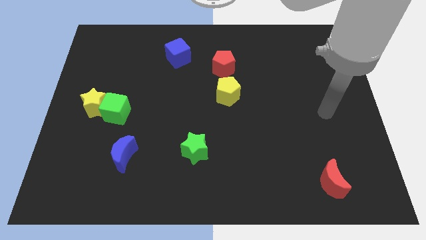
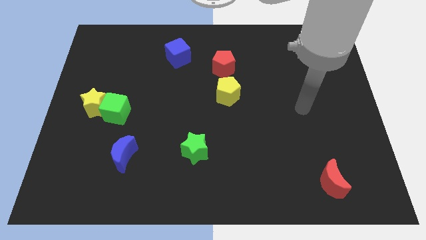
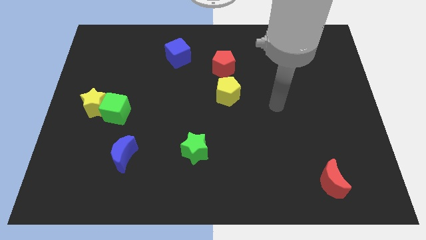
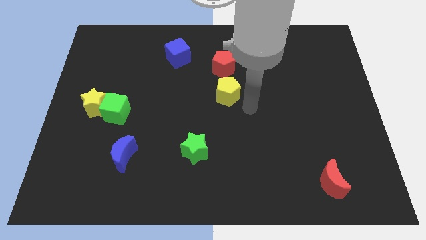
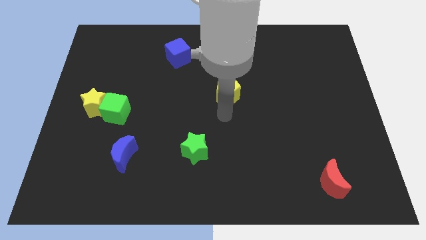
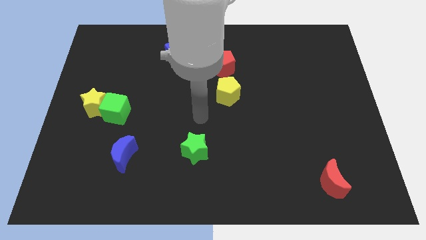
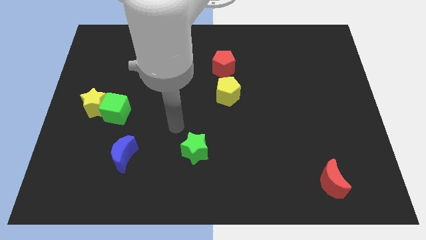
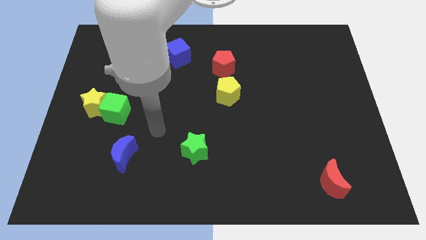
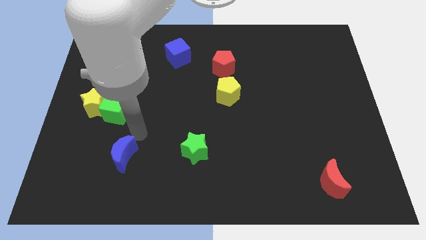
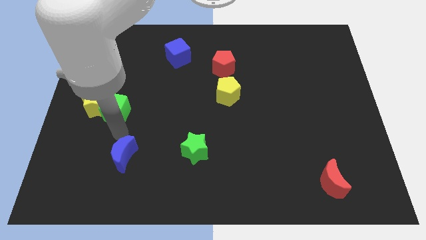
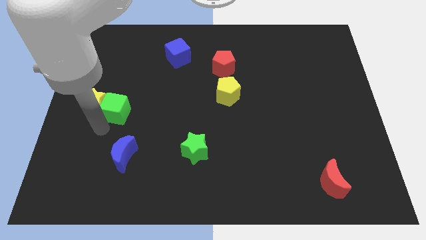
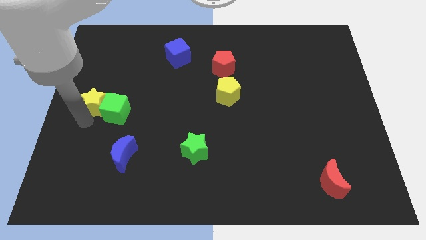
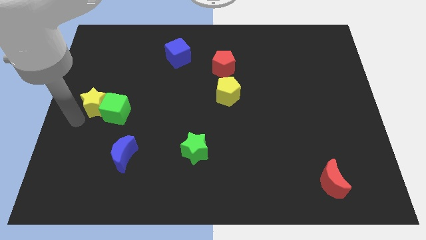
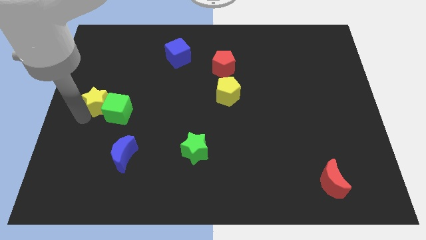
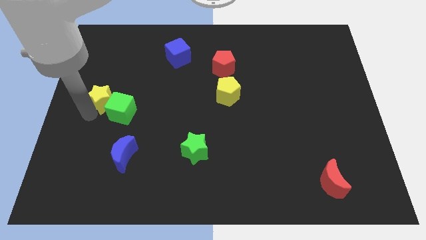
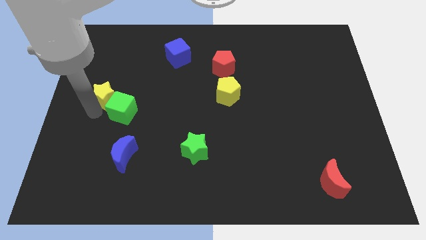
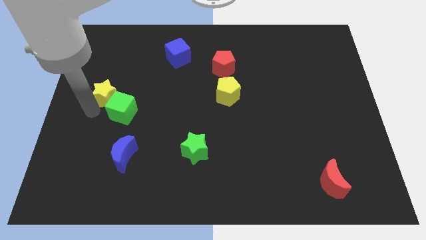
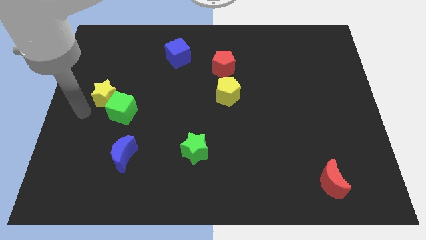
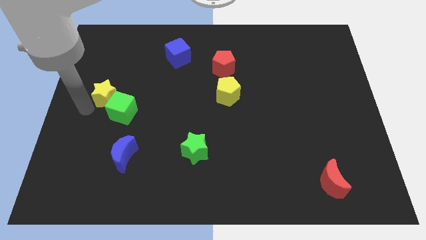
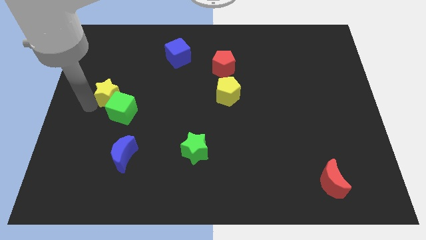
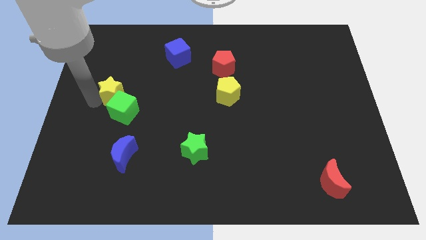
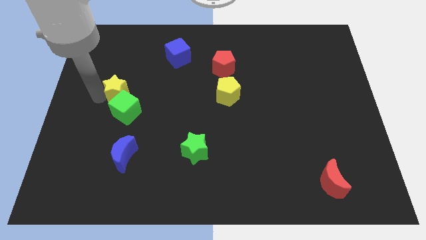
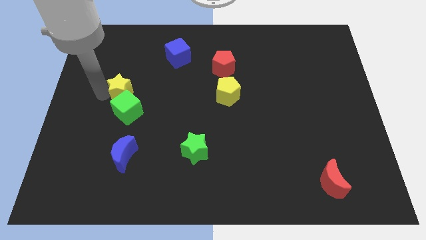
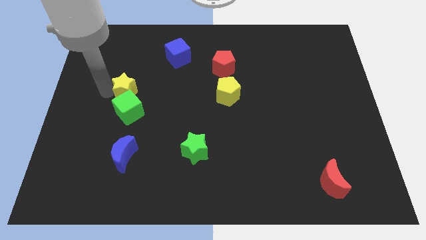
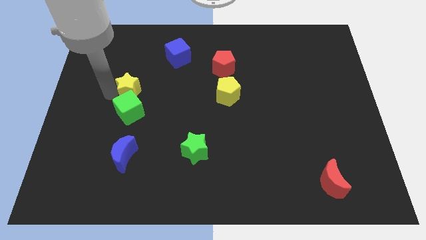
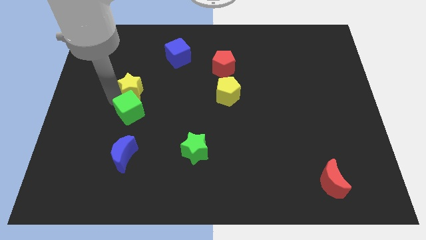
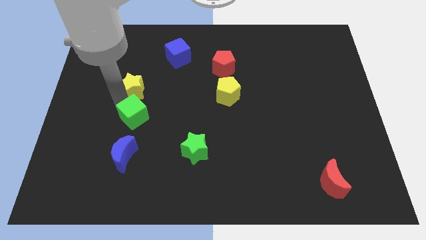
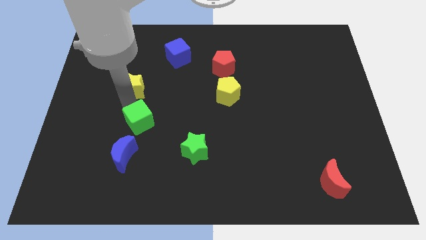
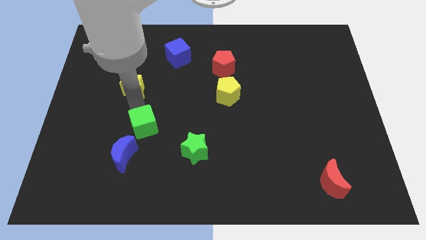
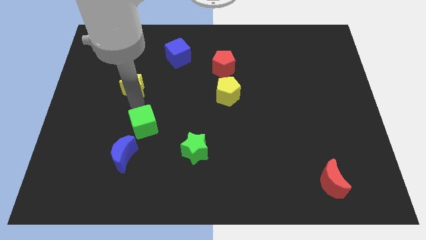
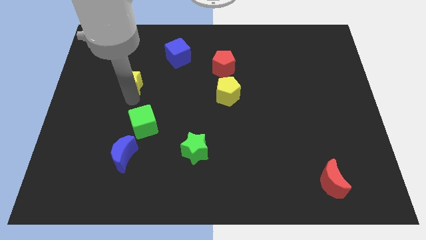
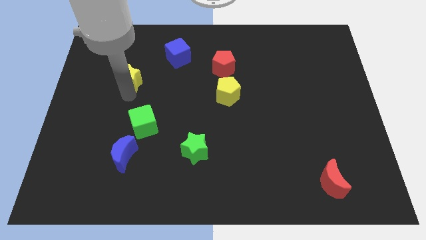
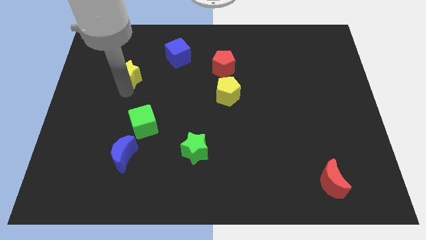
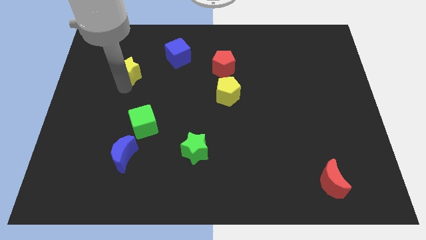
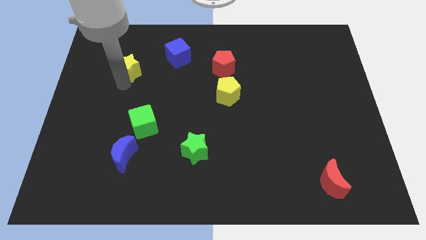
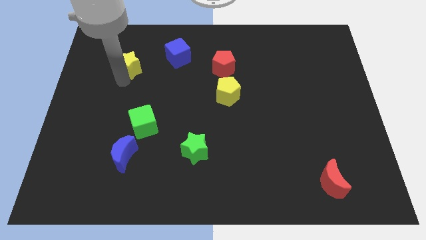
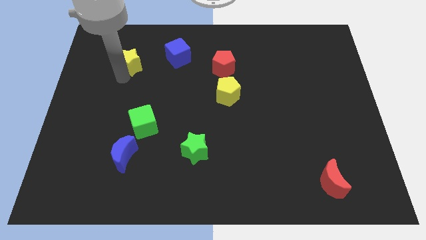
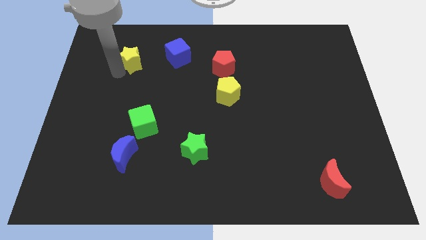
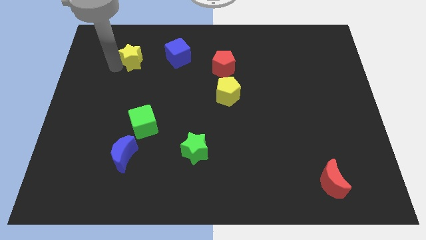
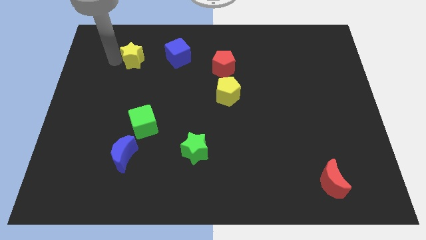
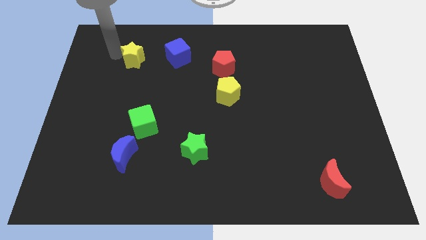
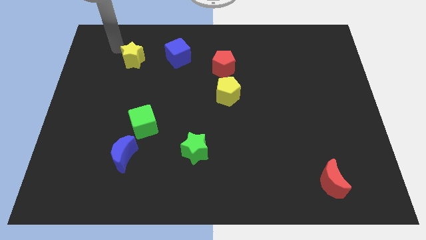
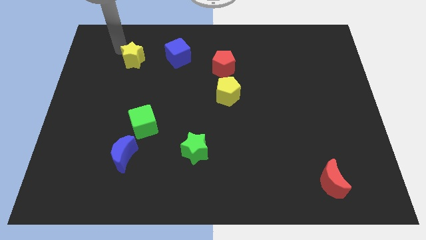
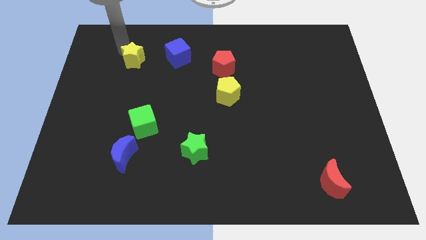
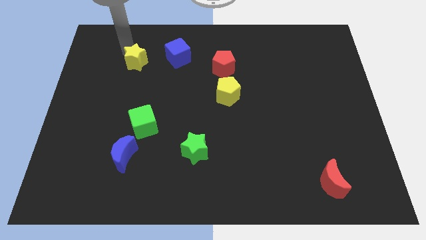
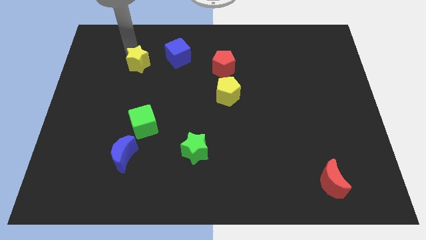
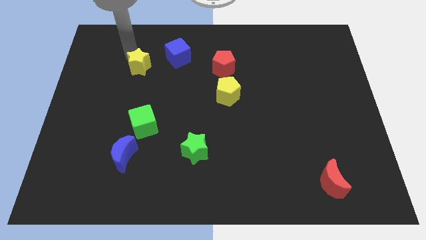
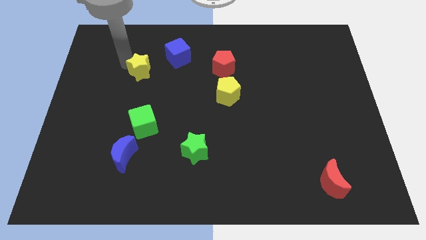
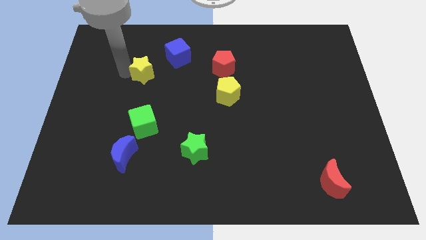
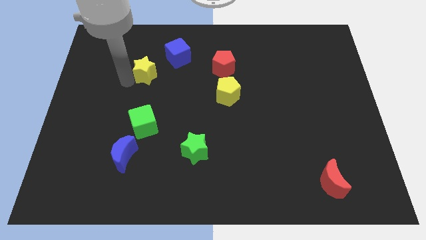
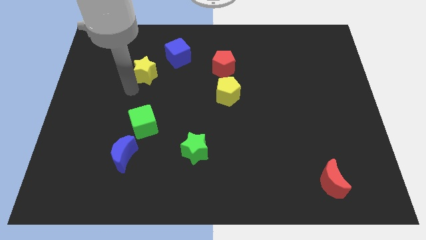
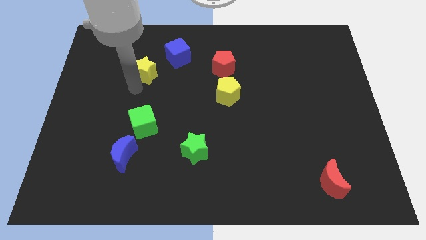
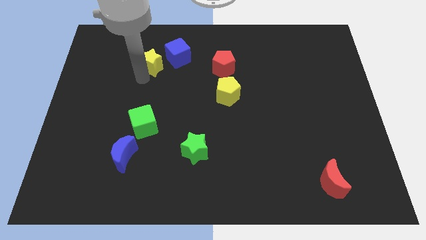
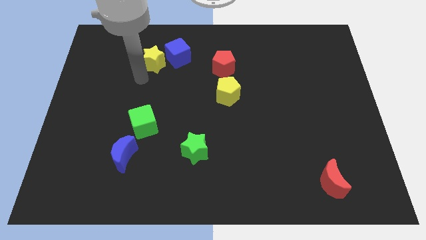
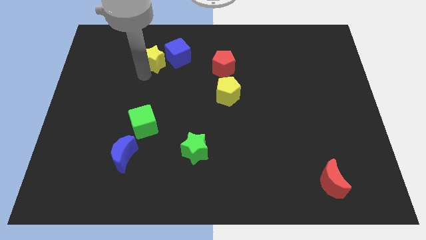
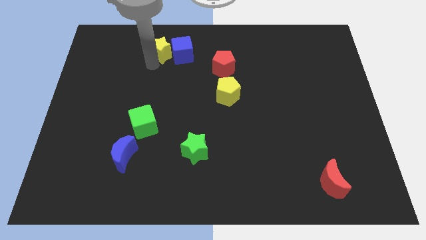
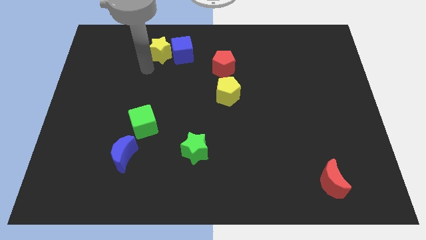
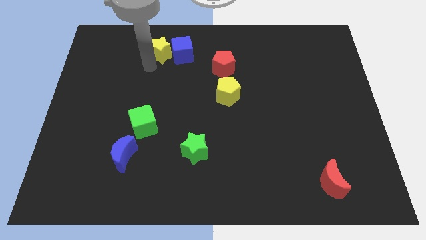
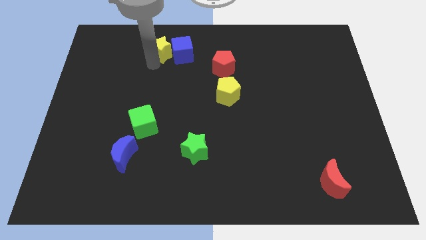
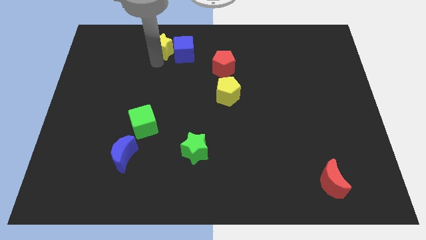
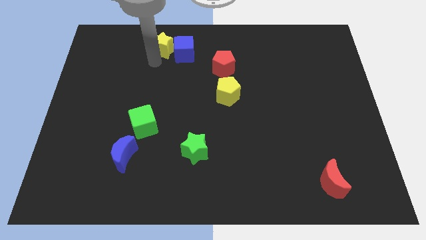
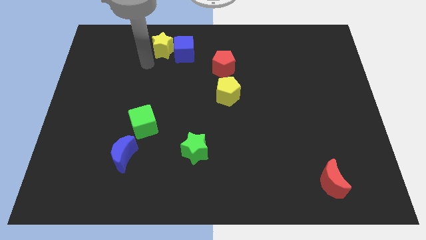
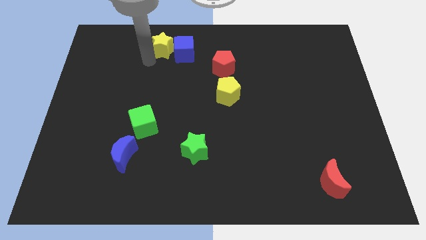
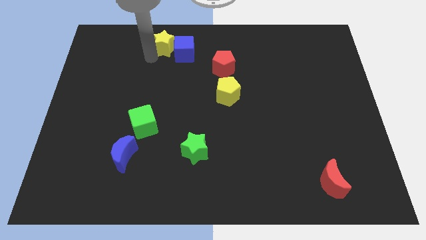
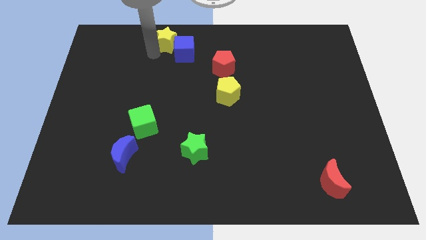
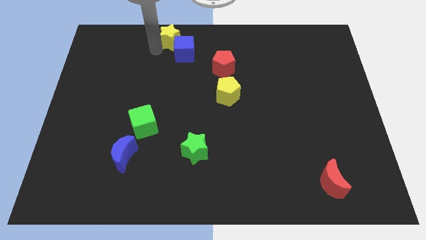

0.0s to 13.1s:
move the yellow star to the top side
